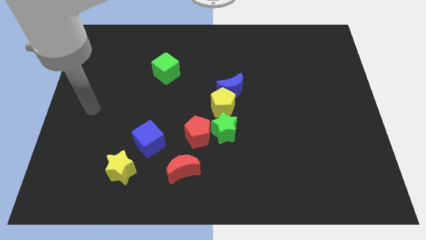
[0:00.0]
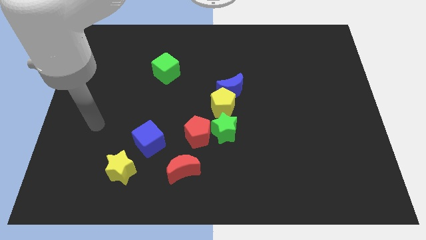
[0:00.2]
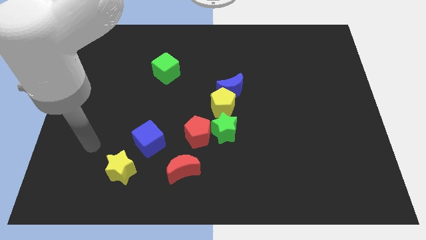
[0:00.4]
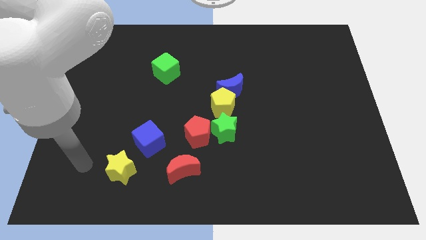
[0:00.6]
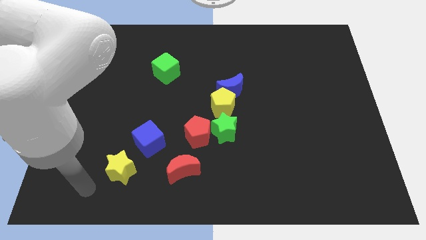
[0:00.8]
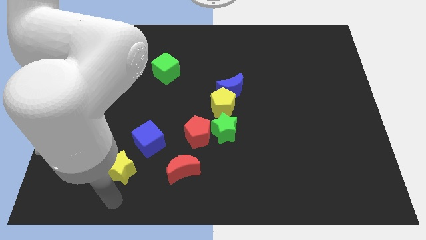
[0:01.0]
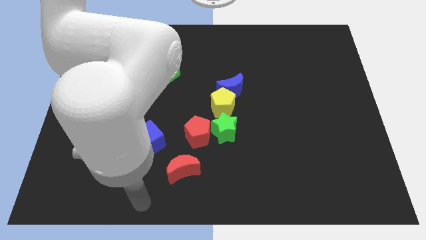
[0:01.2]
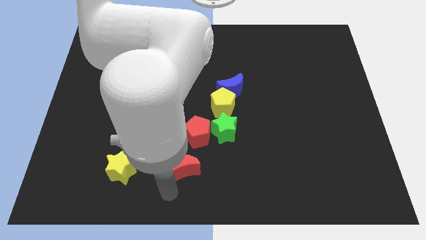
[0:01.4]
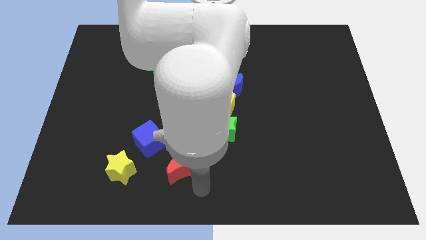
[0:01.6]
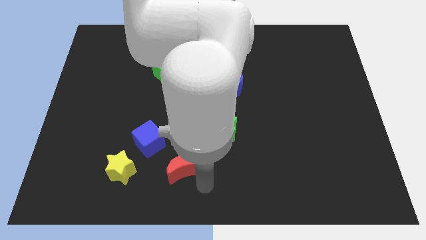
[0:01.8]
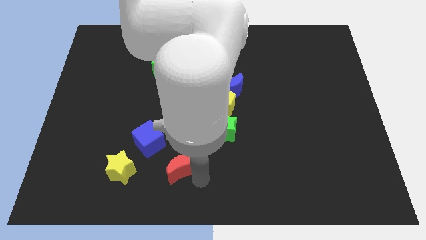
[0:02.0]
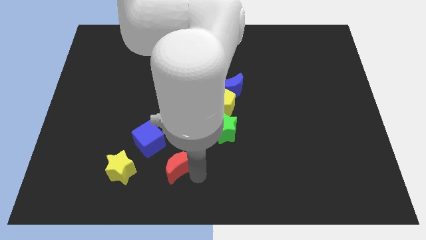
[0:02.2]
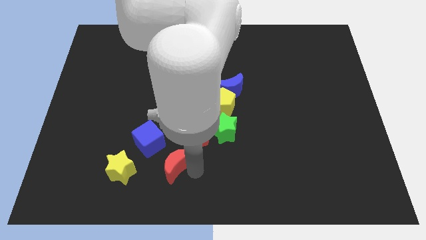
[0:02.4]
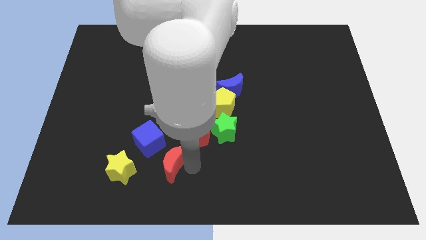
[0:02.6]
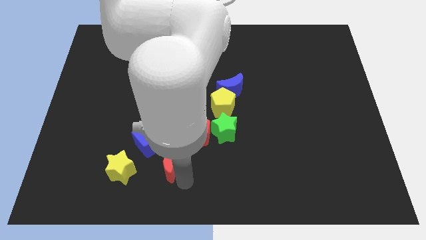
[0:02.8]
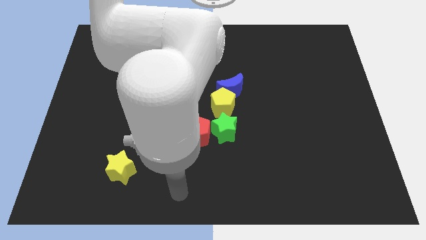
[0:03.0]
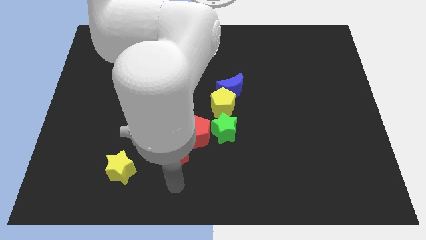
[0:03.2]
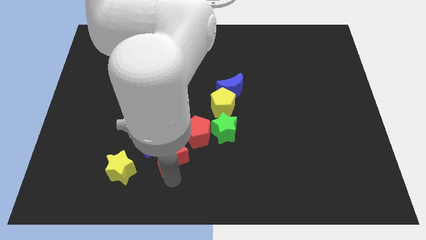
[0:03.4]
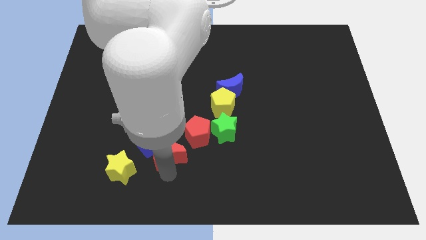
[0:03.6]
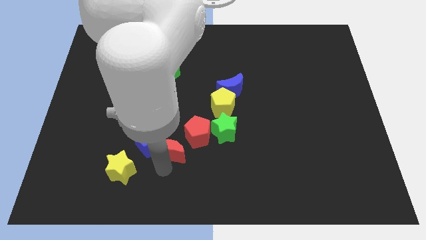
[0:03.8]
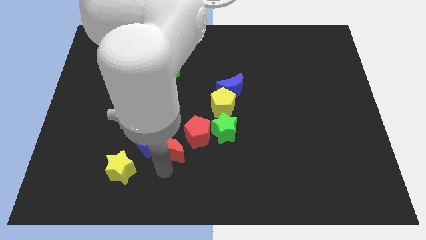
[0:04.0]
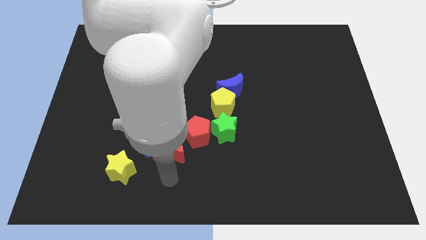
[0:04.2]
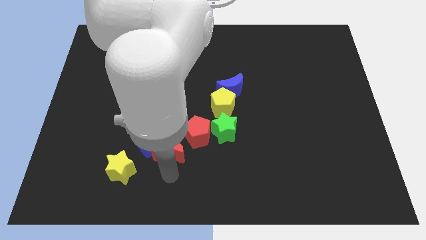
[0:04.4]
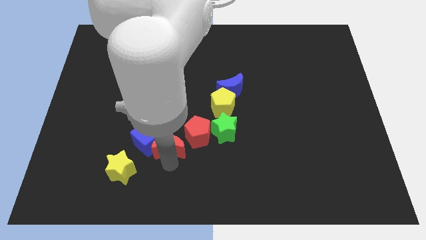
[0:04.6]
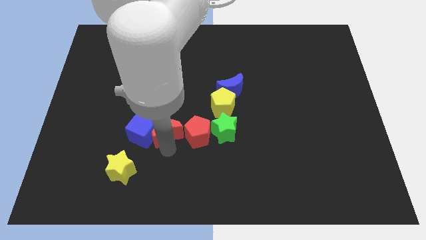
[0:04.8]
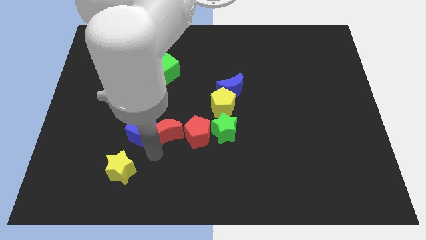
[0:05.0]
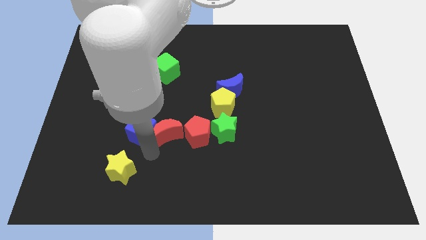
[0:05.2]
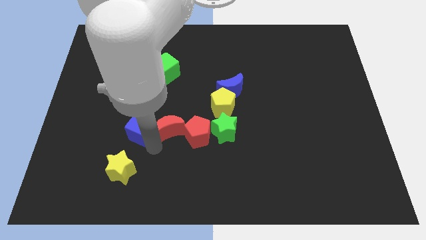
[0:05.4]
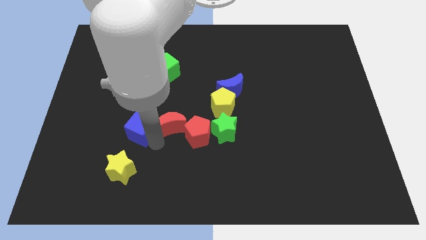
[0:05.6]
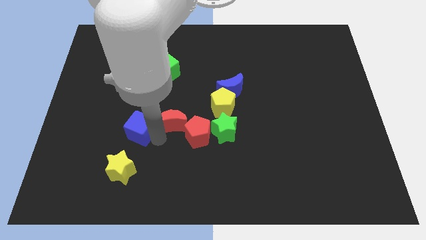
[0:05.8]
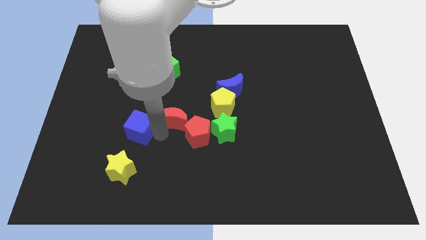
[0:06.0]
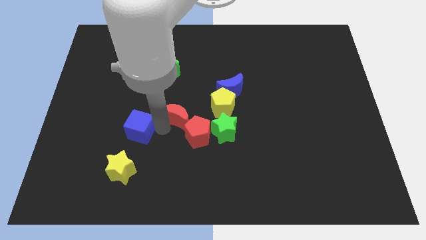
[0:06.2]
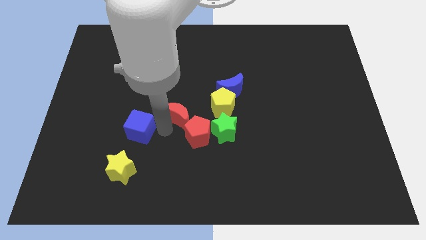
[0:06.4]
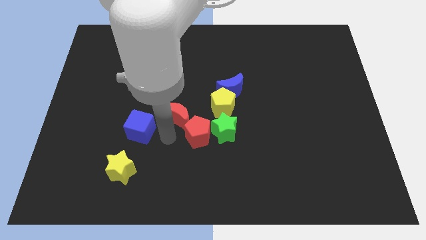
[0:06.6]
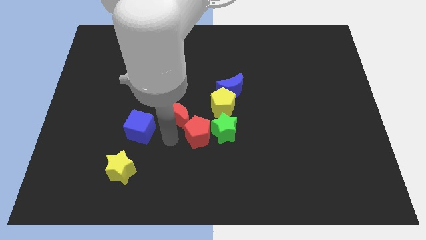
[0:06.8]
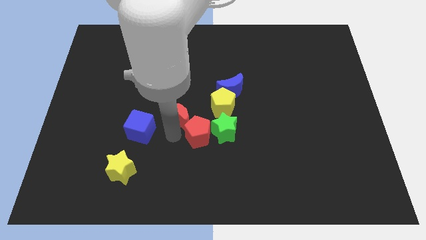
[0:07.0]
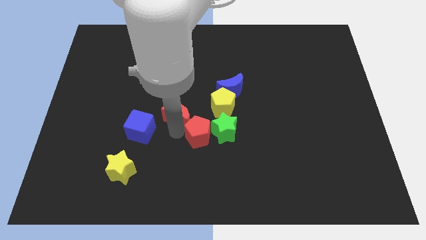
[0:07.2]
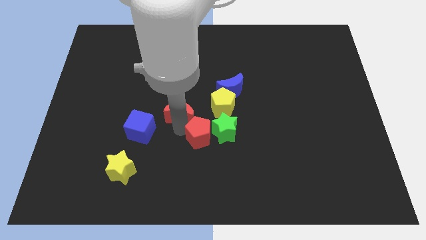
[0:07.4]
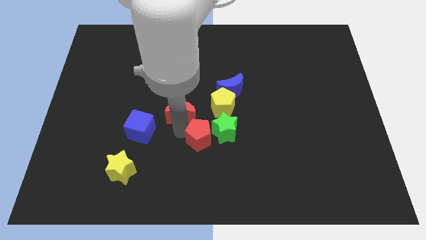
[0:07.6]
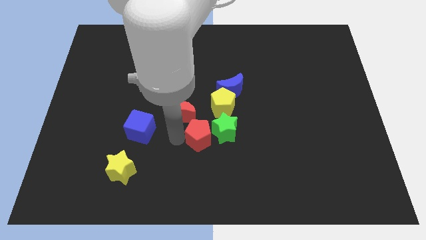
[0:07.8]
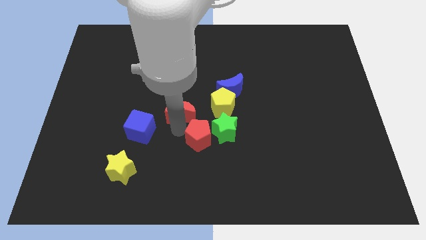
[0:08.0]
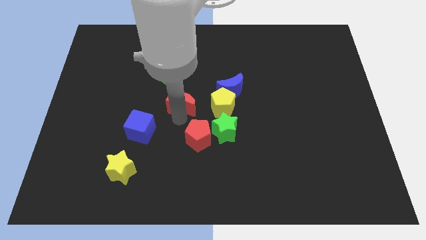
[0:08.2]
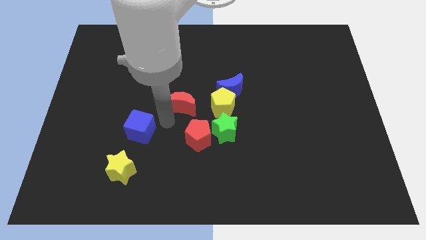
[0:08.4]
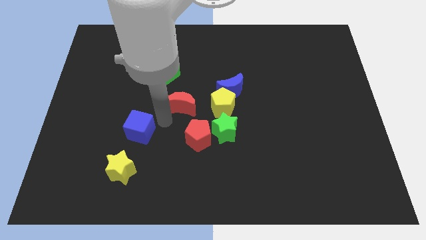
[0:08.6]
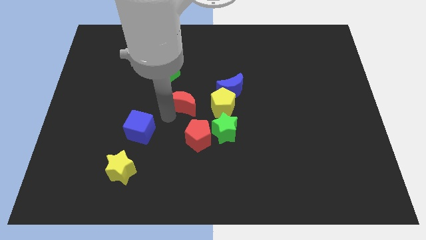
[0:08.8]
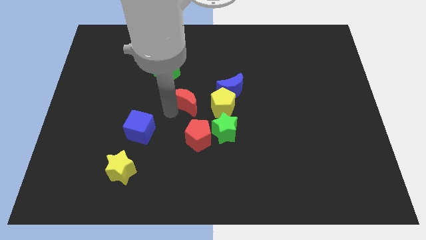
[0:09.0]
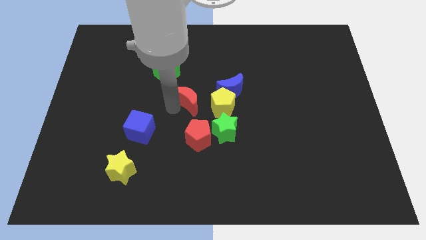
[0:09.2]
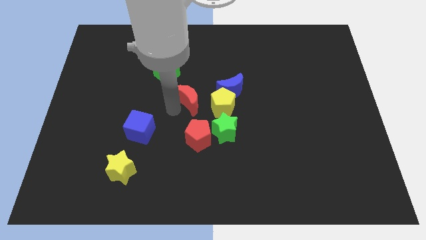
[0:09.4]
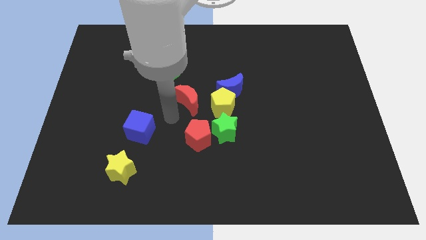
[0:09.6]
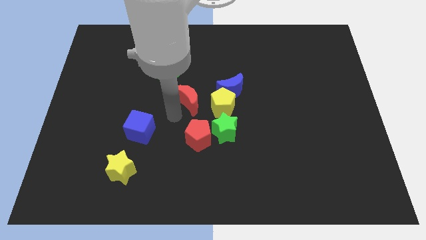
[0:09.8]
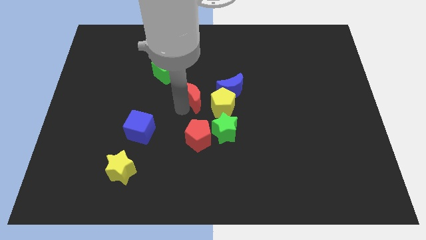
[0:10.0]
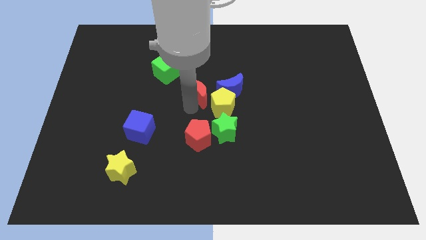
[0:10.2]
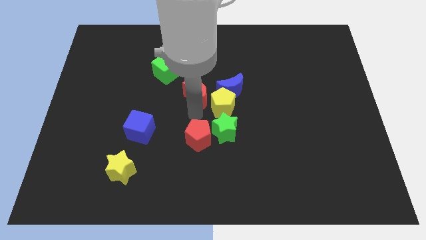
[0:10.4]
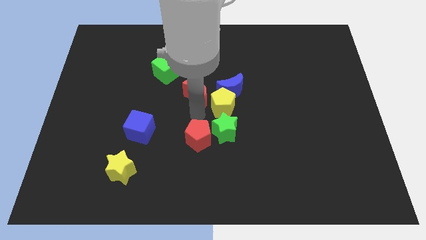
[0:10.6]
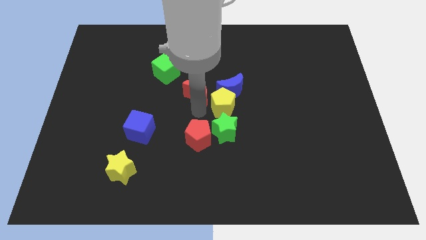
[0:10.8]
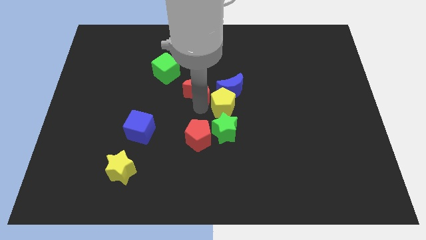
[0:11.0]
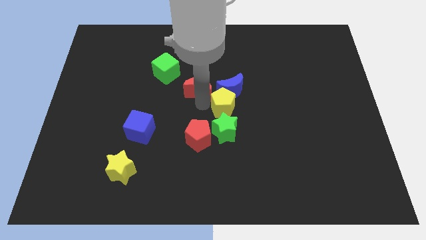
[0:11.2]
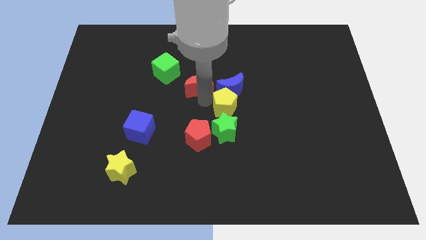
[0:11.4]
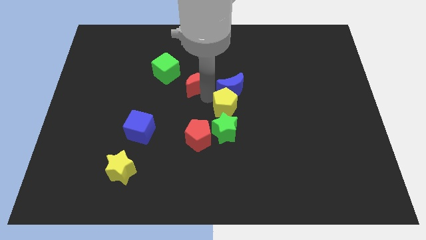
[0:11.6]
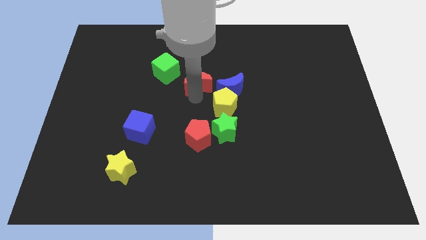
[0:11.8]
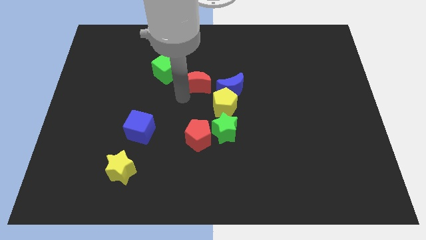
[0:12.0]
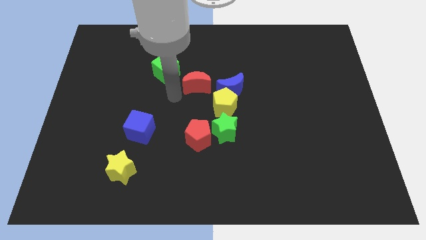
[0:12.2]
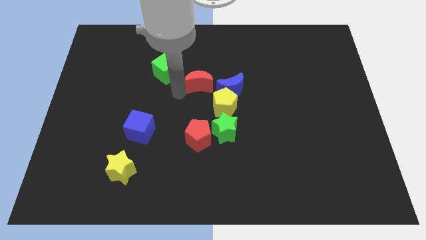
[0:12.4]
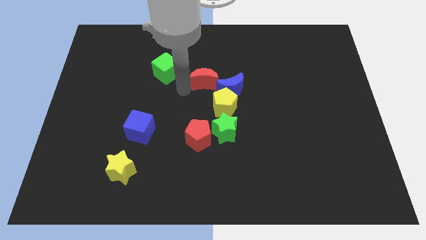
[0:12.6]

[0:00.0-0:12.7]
move the red moon above the yellow pentagon

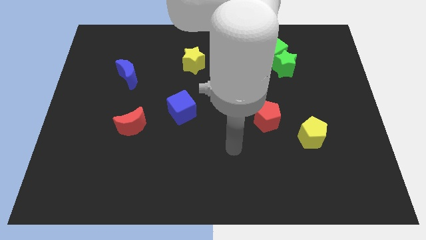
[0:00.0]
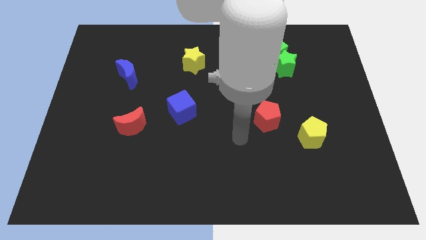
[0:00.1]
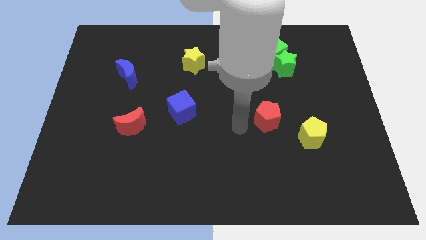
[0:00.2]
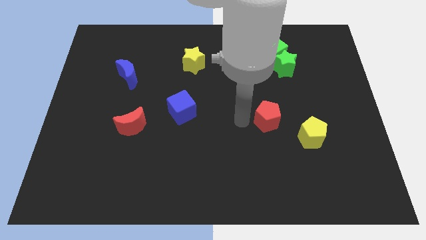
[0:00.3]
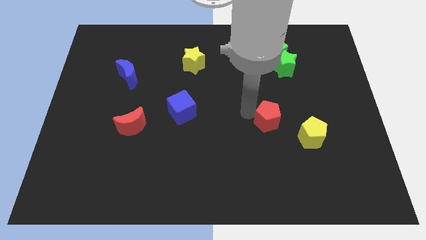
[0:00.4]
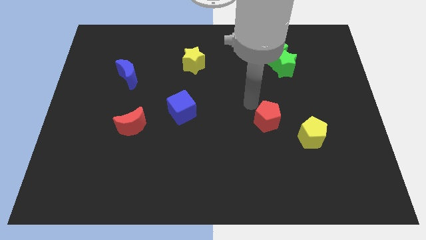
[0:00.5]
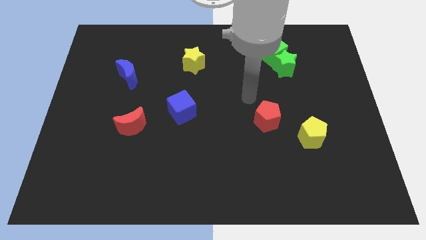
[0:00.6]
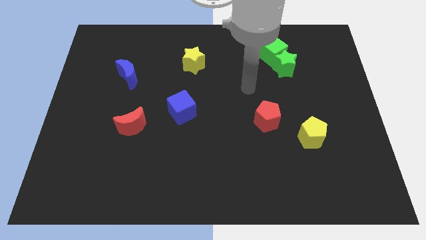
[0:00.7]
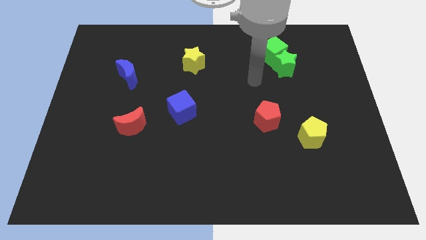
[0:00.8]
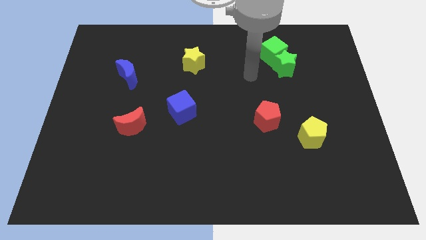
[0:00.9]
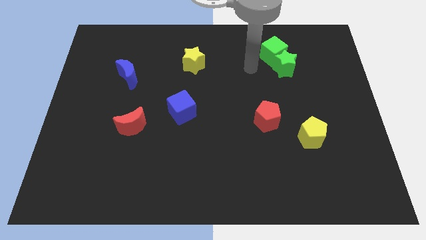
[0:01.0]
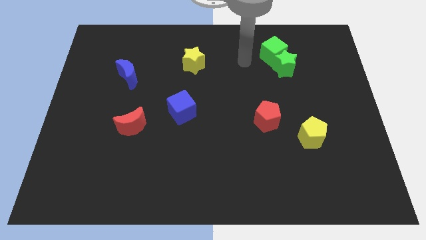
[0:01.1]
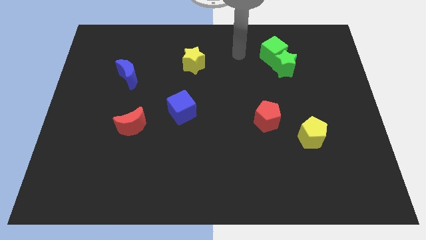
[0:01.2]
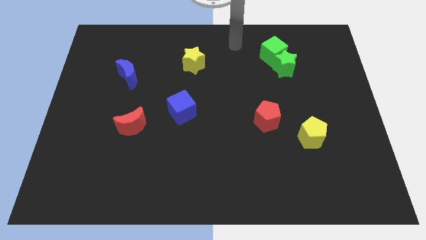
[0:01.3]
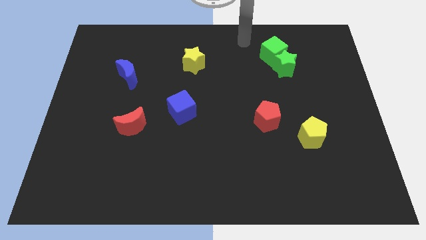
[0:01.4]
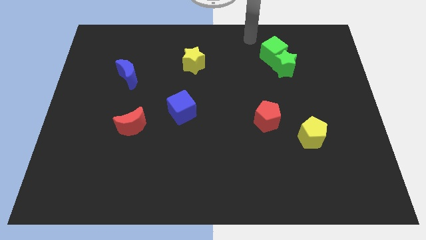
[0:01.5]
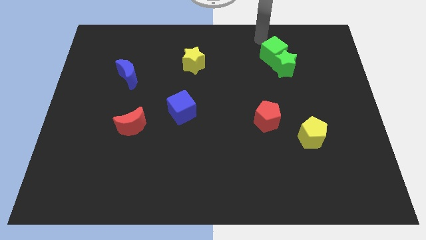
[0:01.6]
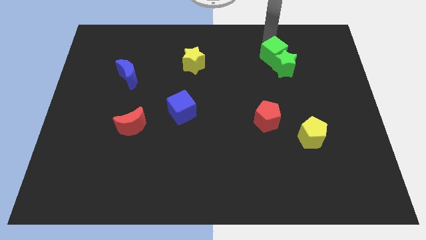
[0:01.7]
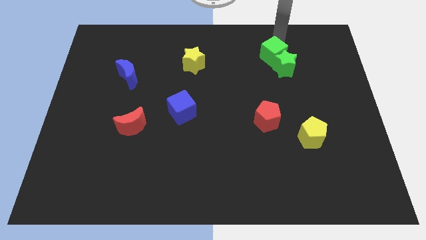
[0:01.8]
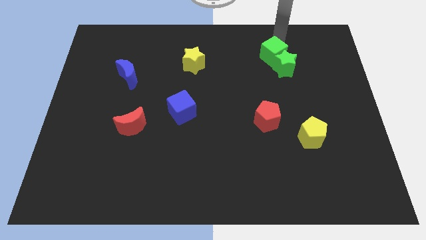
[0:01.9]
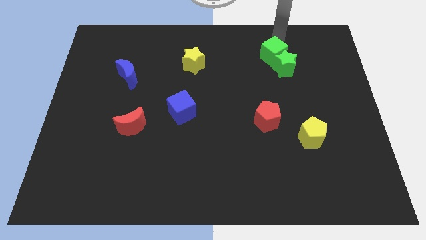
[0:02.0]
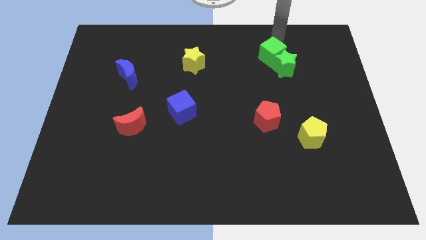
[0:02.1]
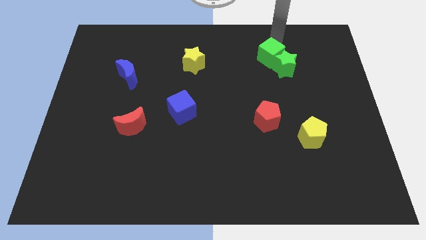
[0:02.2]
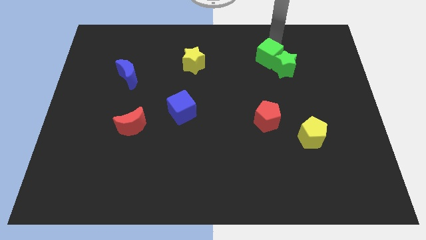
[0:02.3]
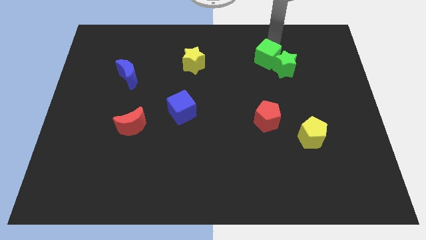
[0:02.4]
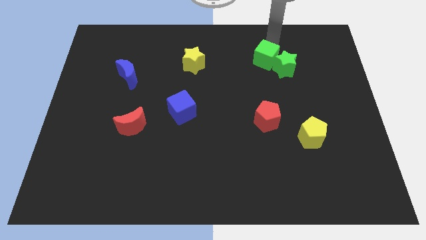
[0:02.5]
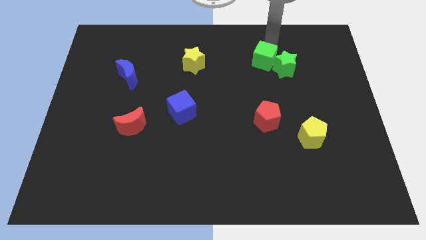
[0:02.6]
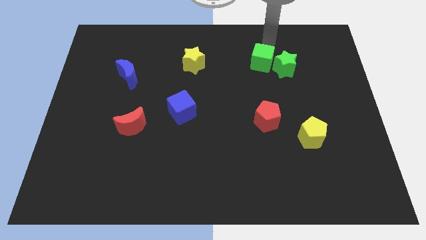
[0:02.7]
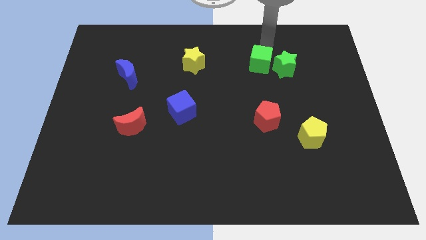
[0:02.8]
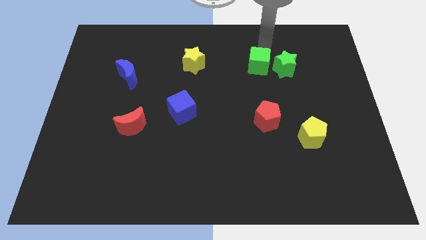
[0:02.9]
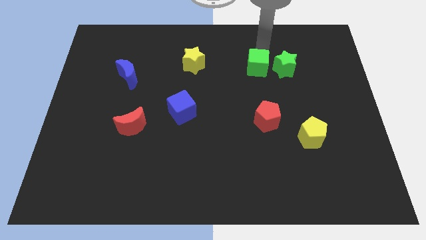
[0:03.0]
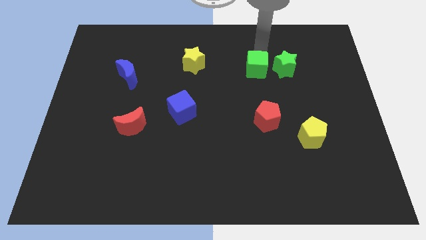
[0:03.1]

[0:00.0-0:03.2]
put the green cube to the bottom left side of the green star
